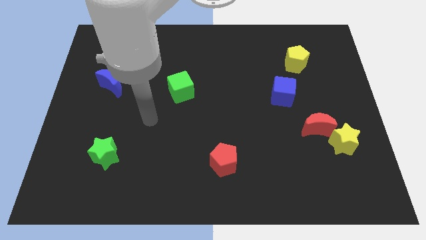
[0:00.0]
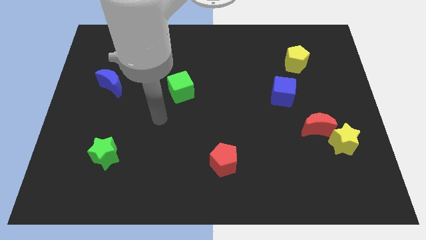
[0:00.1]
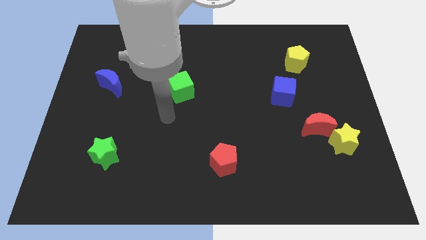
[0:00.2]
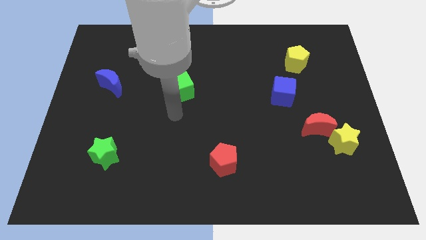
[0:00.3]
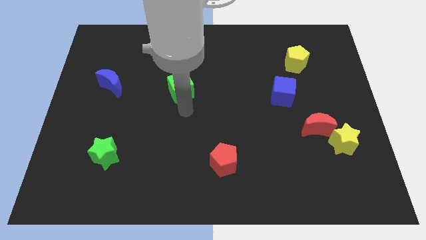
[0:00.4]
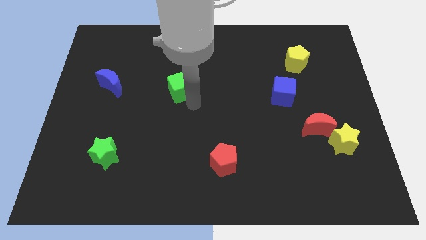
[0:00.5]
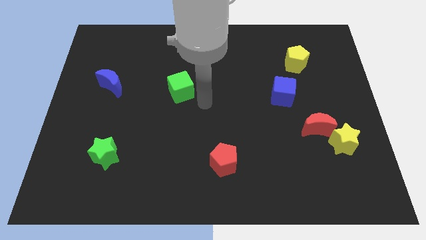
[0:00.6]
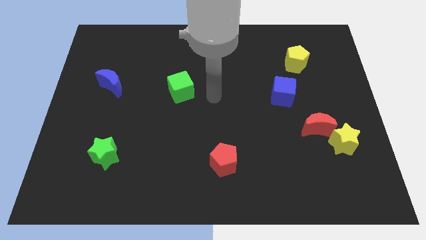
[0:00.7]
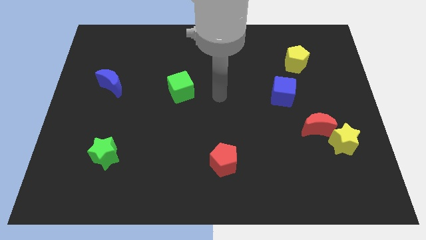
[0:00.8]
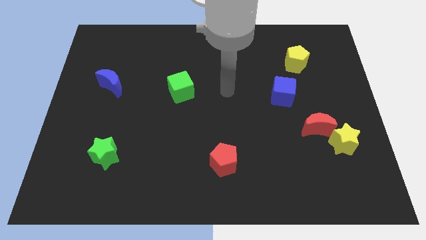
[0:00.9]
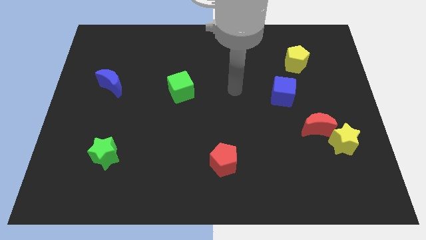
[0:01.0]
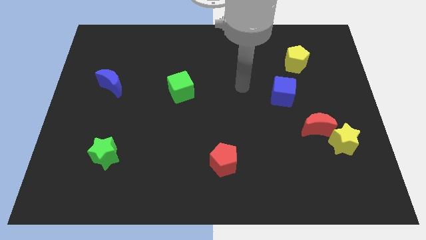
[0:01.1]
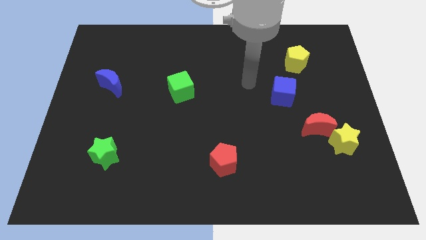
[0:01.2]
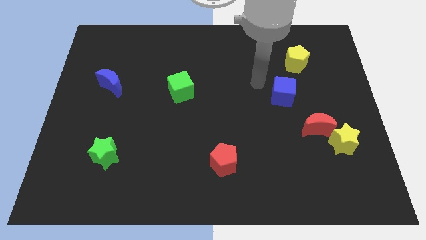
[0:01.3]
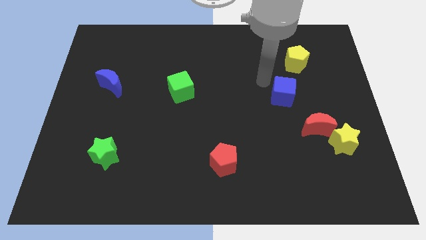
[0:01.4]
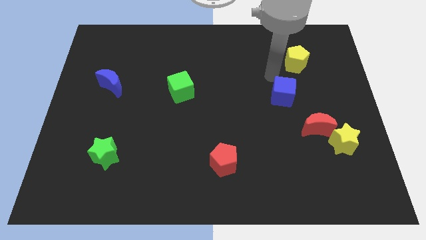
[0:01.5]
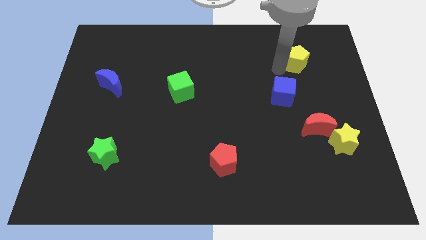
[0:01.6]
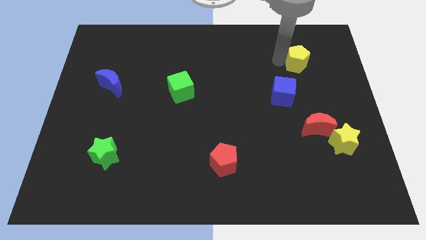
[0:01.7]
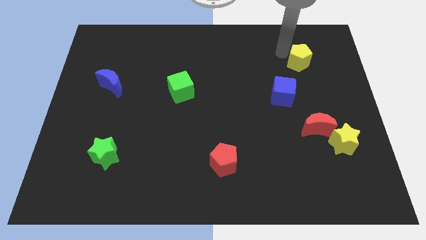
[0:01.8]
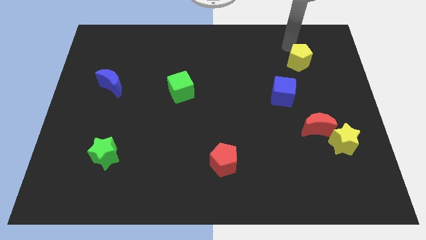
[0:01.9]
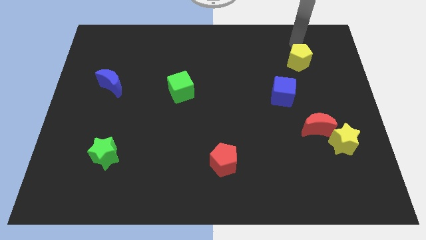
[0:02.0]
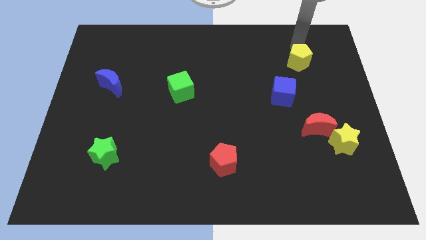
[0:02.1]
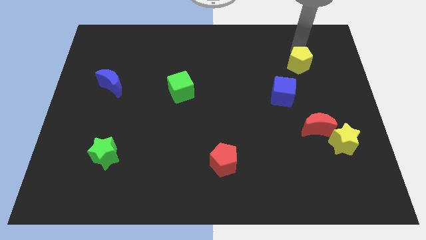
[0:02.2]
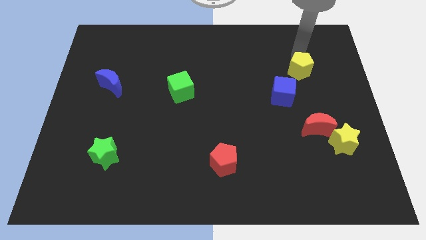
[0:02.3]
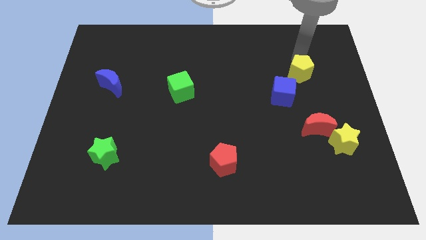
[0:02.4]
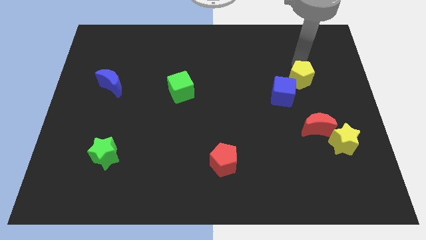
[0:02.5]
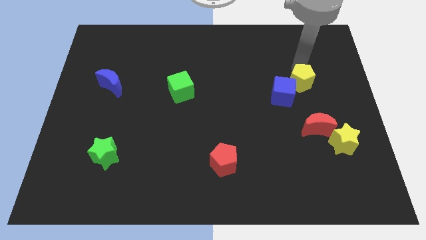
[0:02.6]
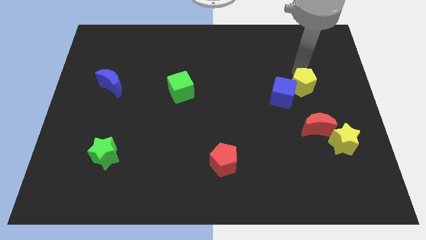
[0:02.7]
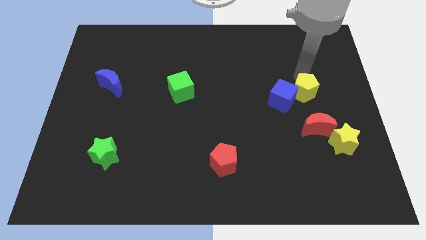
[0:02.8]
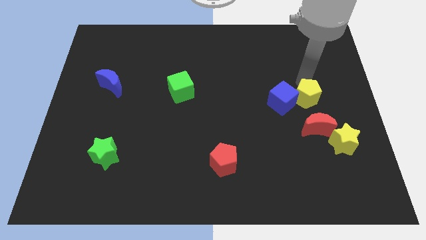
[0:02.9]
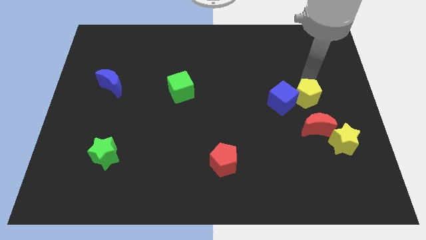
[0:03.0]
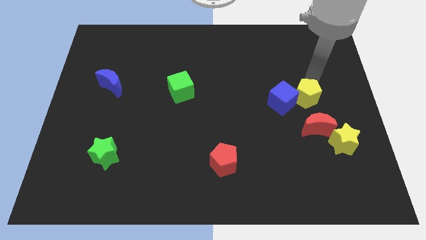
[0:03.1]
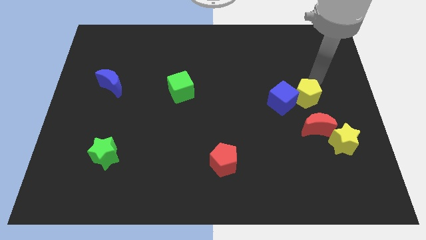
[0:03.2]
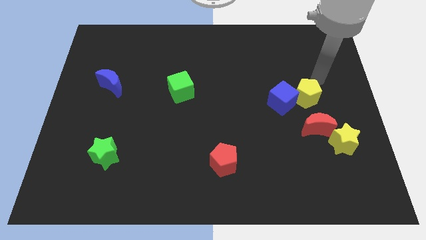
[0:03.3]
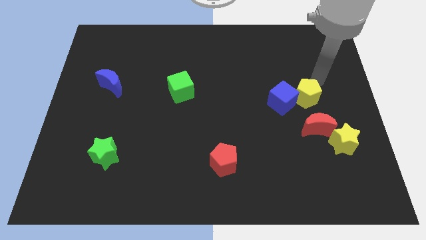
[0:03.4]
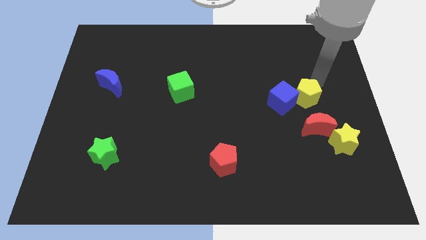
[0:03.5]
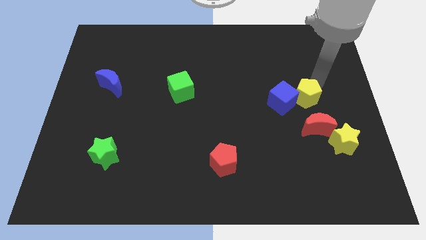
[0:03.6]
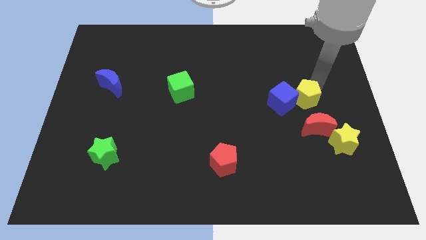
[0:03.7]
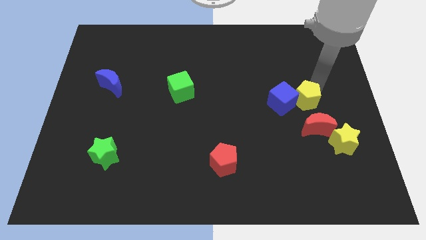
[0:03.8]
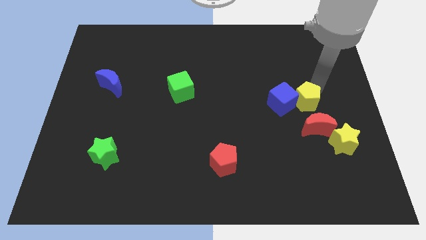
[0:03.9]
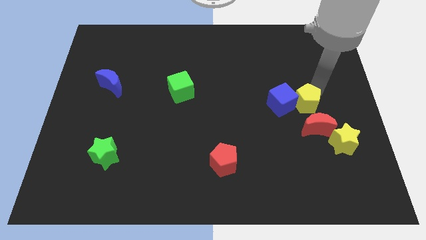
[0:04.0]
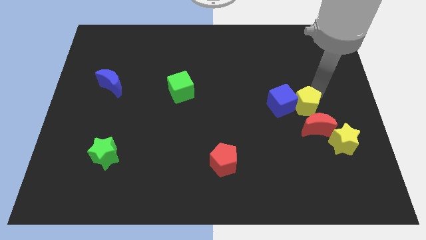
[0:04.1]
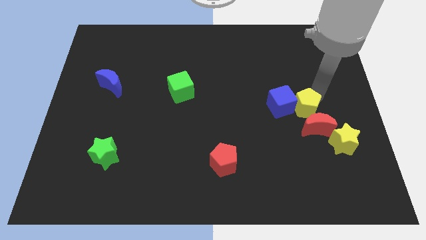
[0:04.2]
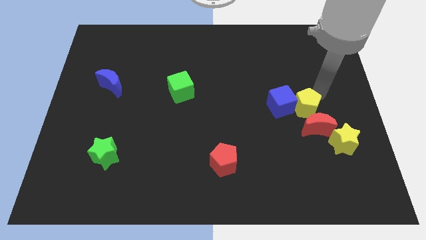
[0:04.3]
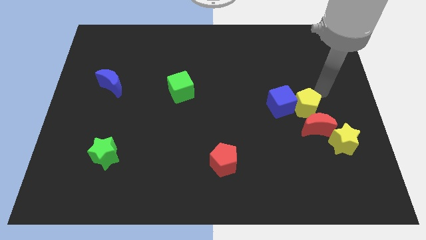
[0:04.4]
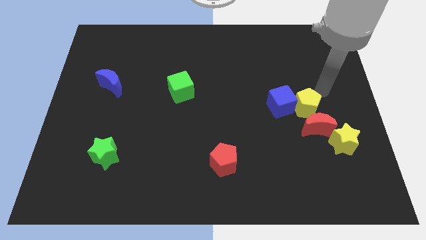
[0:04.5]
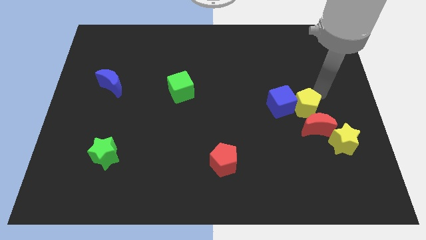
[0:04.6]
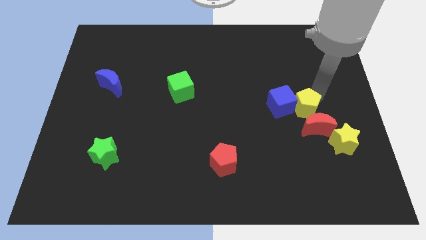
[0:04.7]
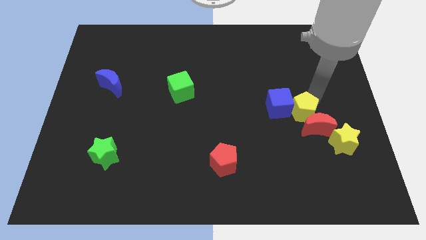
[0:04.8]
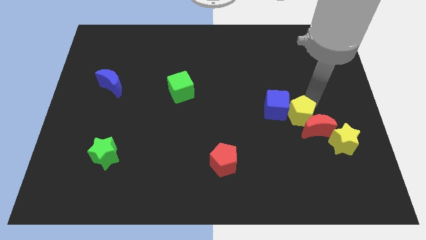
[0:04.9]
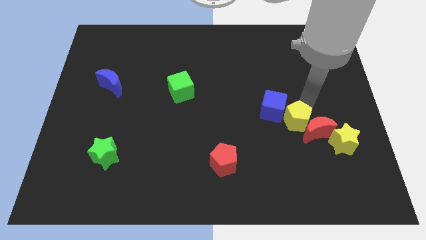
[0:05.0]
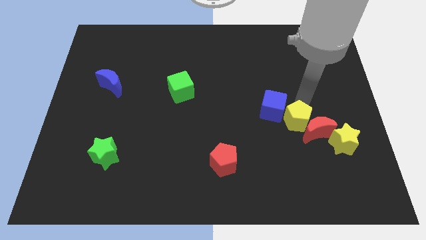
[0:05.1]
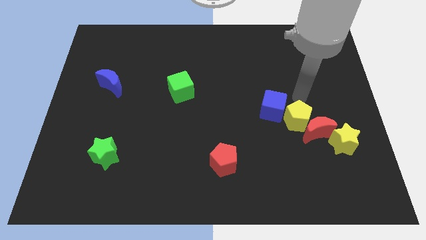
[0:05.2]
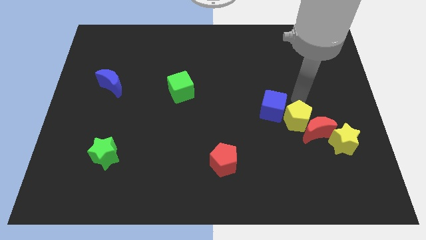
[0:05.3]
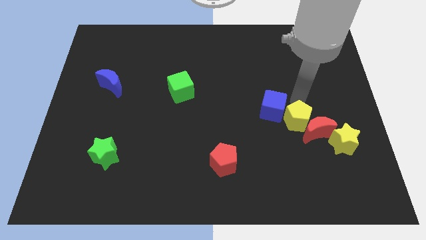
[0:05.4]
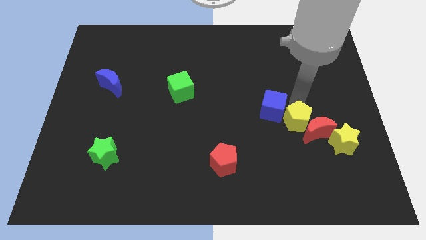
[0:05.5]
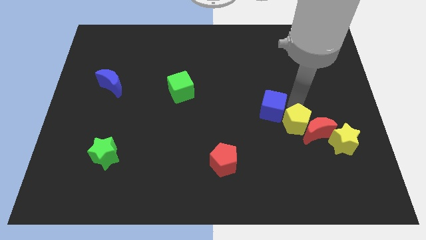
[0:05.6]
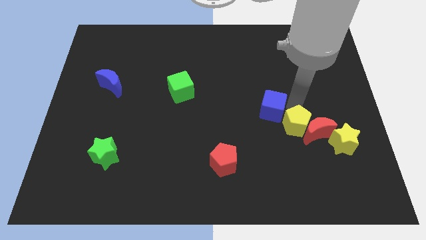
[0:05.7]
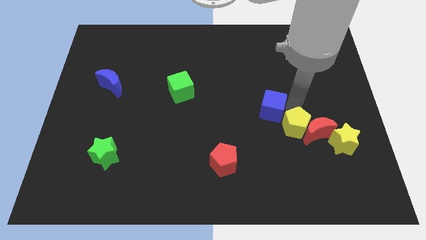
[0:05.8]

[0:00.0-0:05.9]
push the yellow pentagon downwards

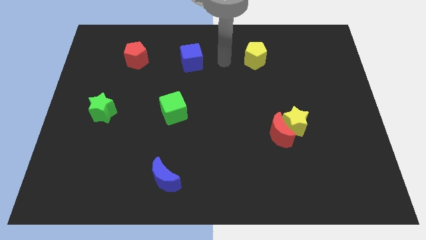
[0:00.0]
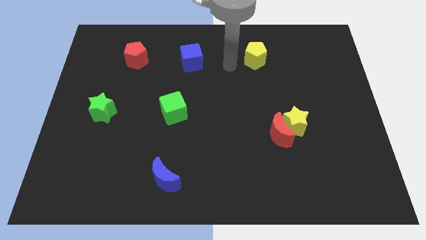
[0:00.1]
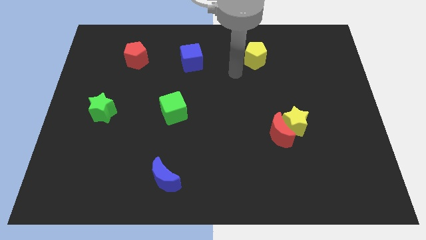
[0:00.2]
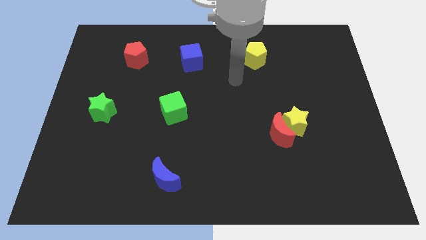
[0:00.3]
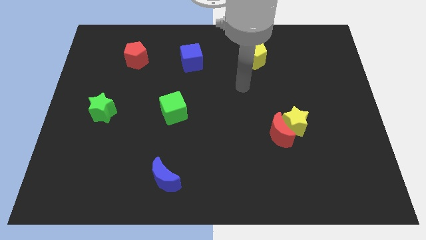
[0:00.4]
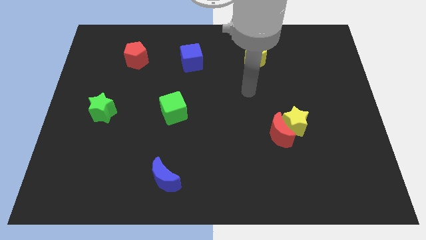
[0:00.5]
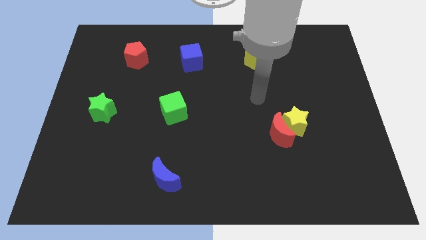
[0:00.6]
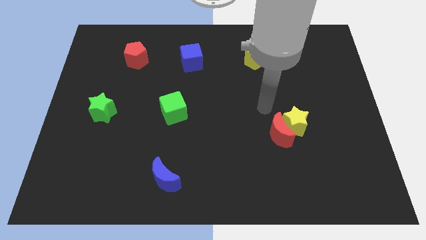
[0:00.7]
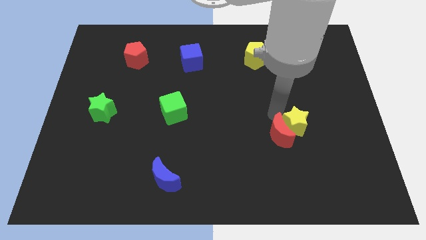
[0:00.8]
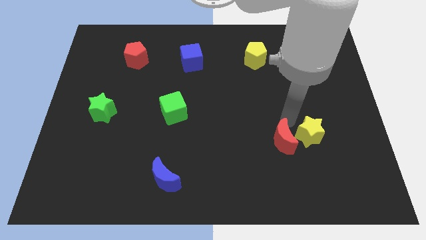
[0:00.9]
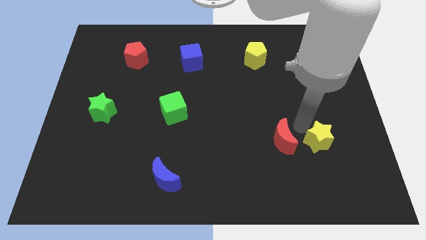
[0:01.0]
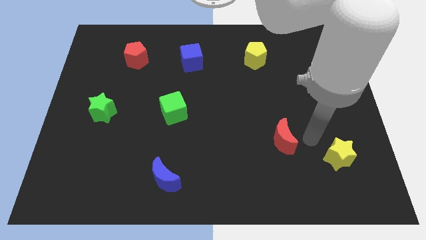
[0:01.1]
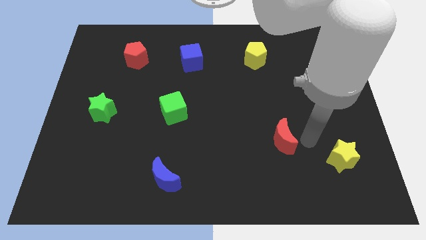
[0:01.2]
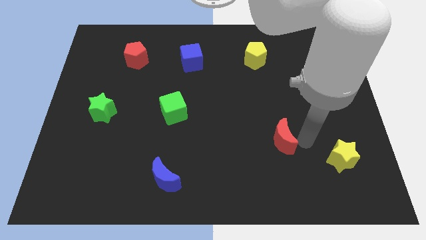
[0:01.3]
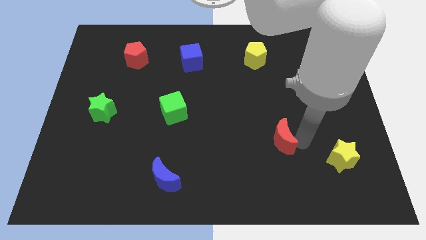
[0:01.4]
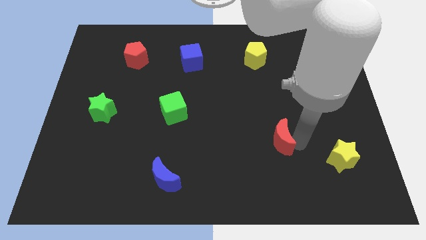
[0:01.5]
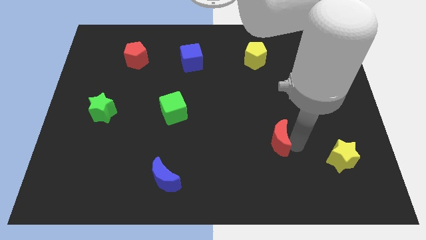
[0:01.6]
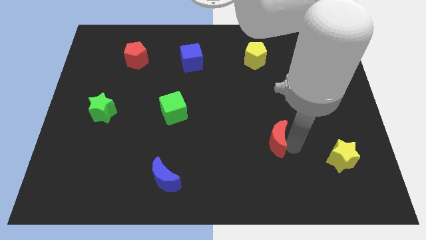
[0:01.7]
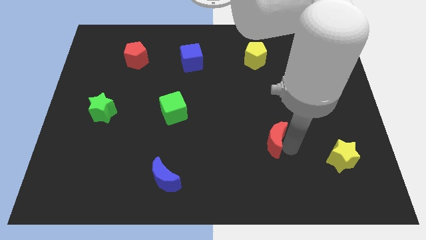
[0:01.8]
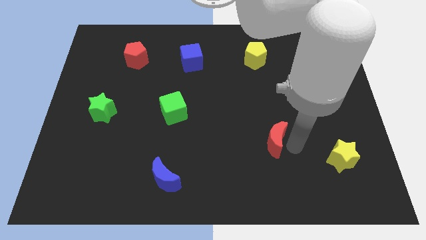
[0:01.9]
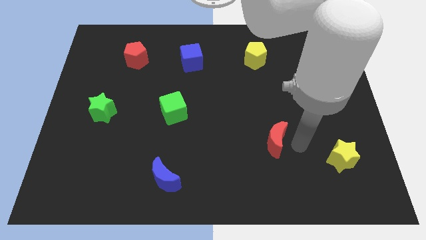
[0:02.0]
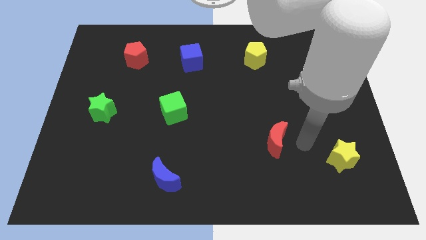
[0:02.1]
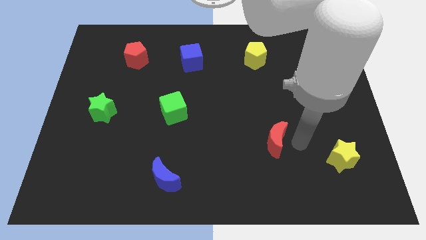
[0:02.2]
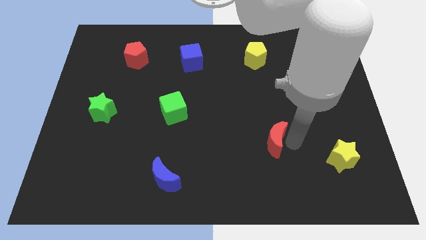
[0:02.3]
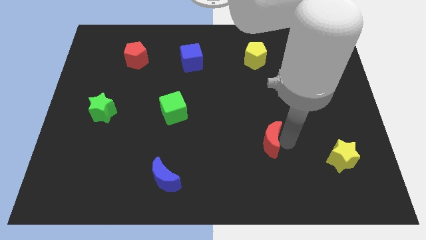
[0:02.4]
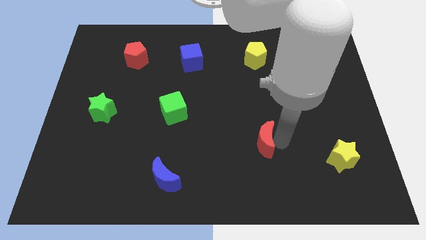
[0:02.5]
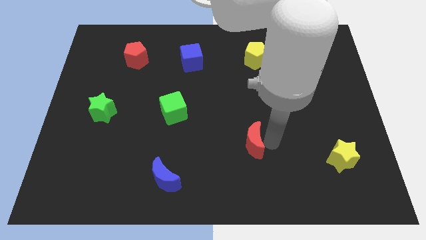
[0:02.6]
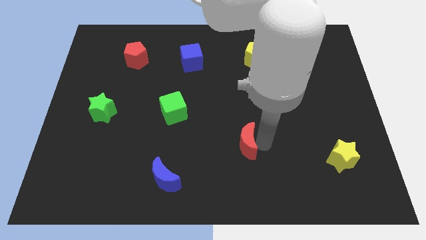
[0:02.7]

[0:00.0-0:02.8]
slide the red moon left somewhat
